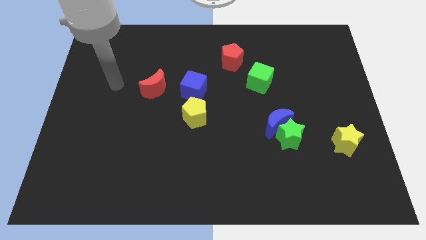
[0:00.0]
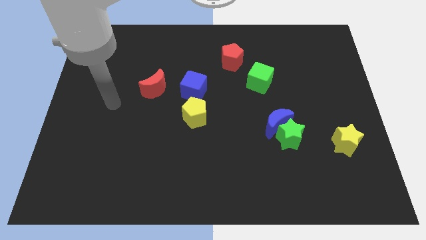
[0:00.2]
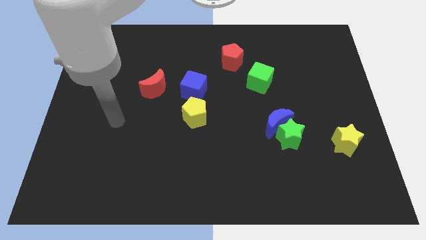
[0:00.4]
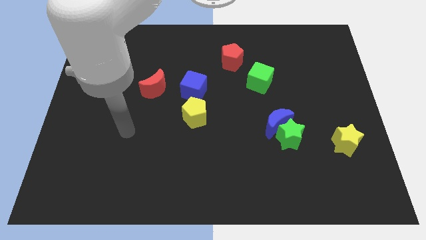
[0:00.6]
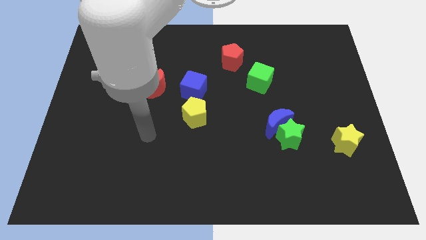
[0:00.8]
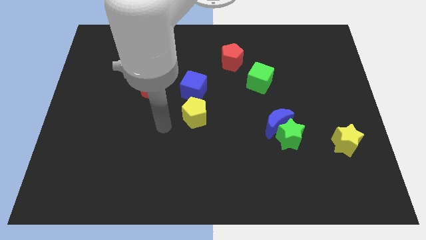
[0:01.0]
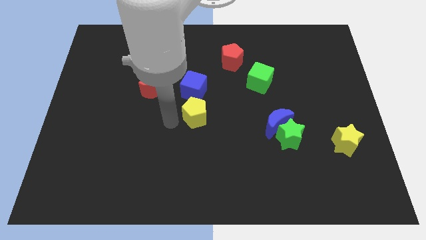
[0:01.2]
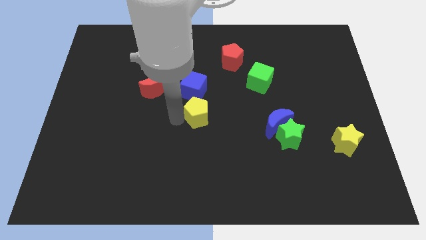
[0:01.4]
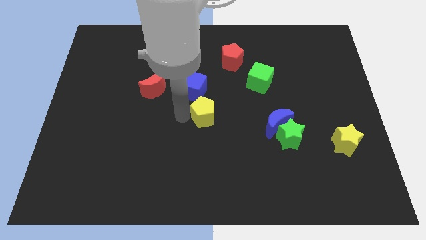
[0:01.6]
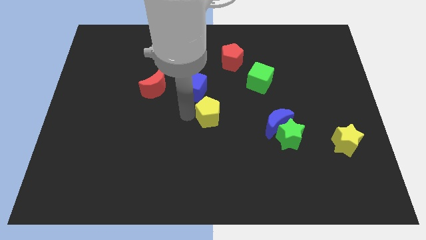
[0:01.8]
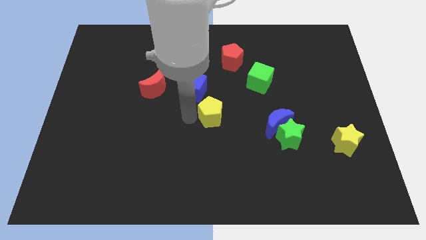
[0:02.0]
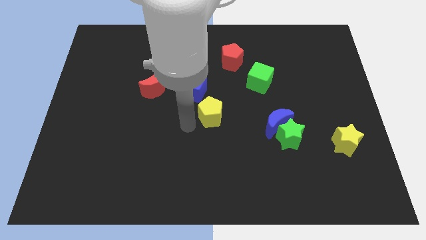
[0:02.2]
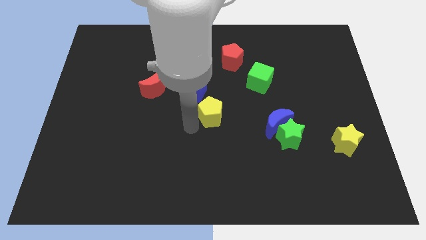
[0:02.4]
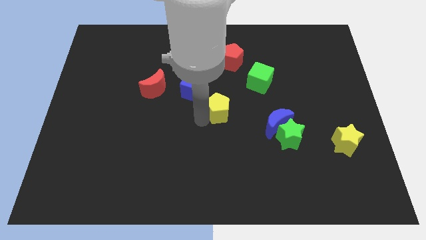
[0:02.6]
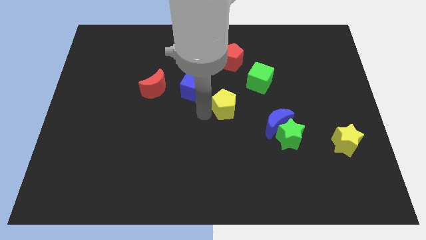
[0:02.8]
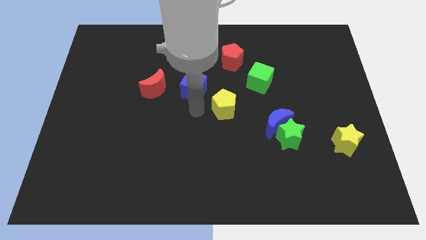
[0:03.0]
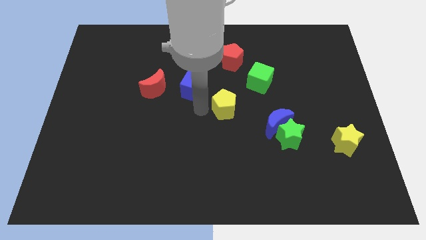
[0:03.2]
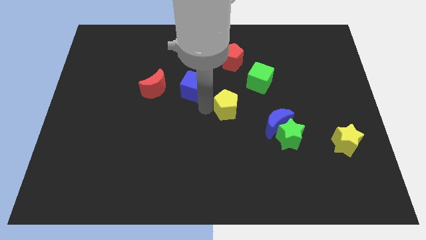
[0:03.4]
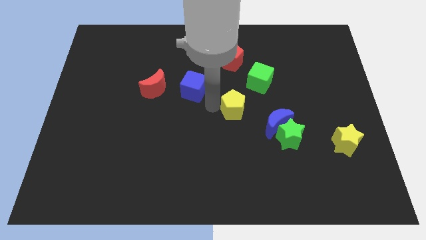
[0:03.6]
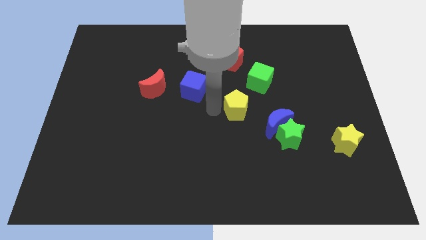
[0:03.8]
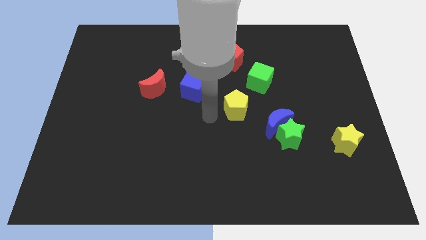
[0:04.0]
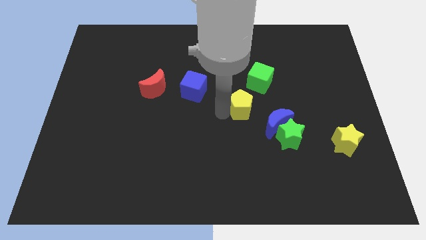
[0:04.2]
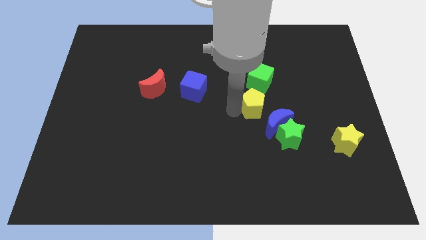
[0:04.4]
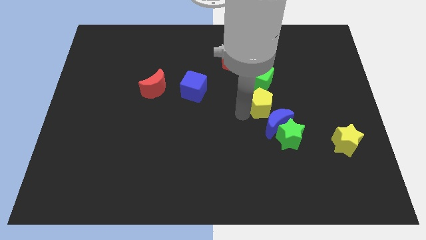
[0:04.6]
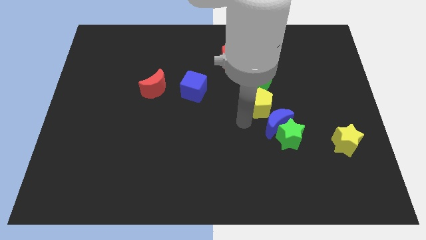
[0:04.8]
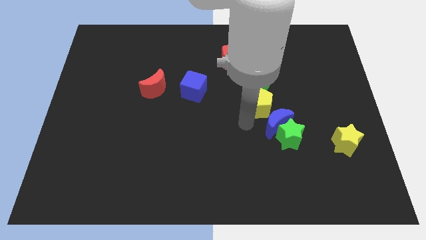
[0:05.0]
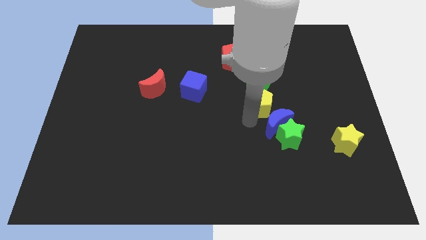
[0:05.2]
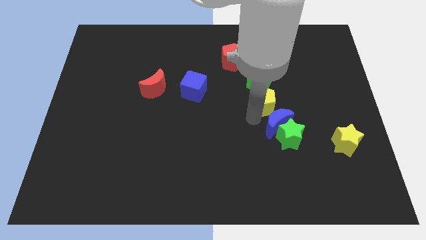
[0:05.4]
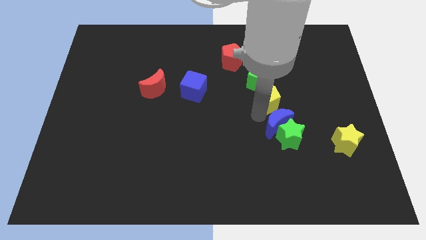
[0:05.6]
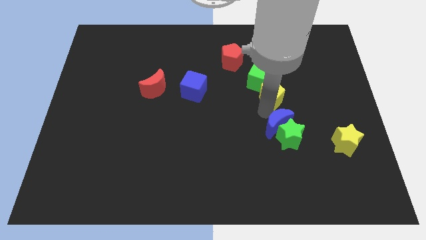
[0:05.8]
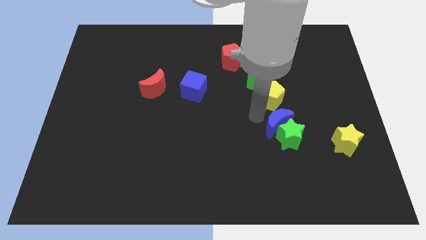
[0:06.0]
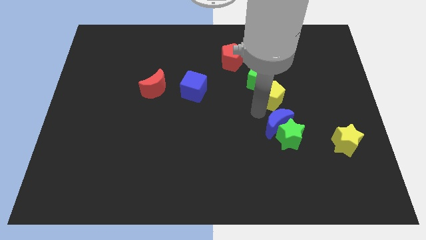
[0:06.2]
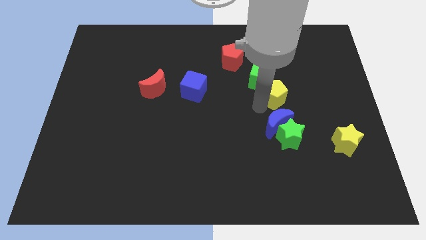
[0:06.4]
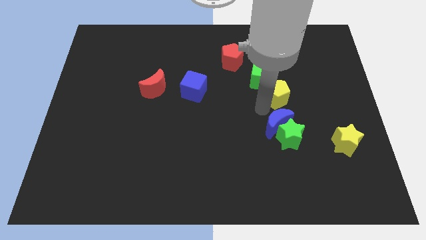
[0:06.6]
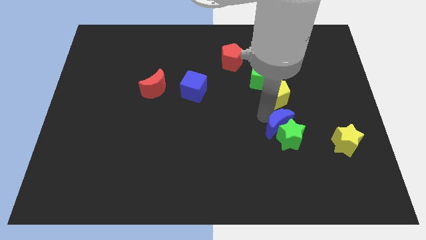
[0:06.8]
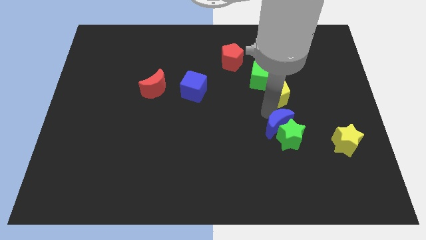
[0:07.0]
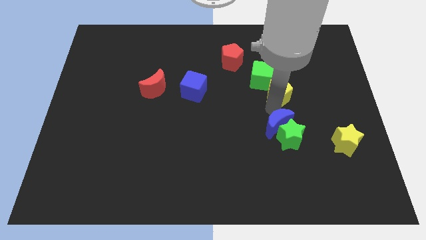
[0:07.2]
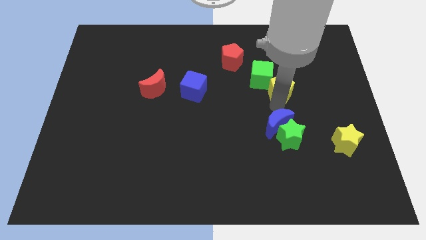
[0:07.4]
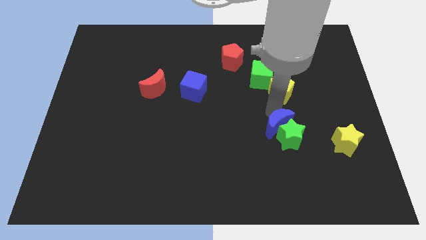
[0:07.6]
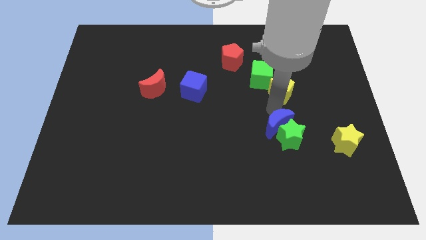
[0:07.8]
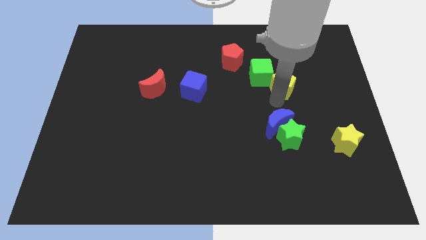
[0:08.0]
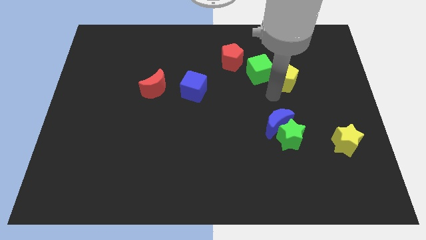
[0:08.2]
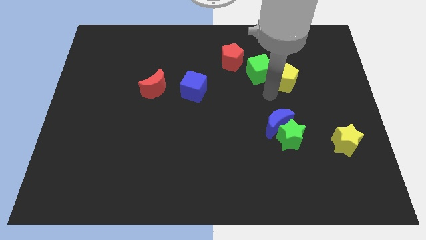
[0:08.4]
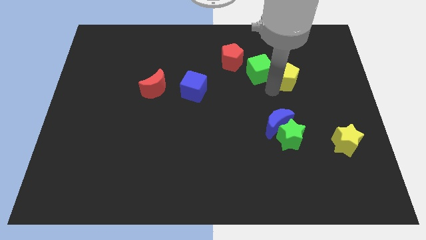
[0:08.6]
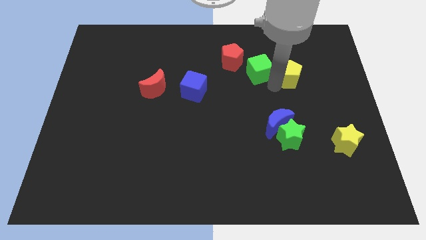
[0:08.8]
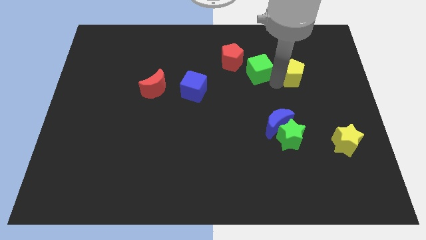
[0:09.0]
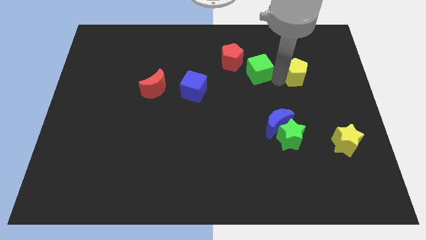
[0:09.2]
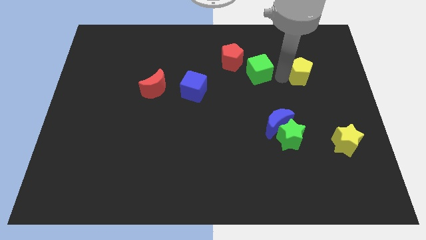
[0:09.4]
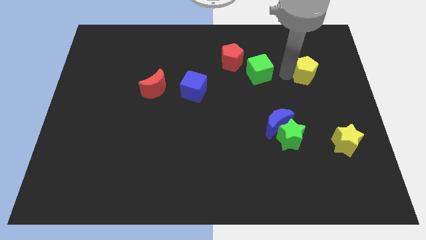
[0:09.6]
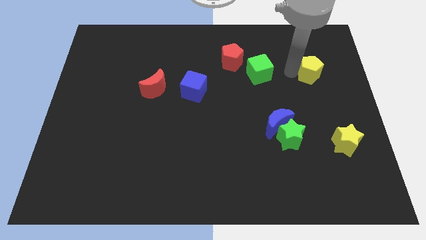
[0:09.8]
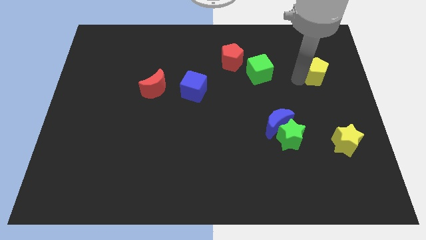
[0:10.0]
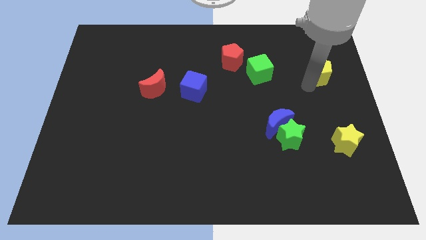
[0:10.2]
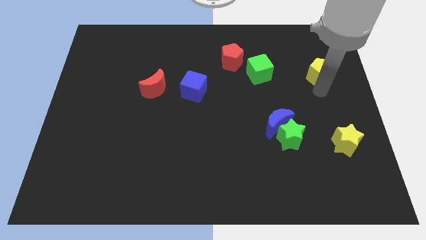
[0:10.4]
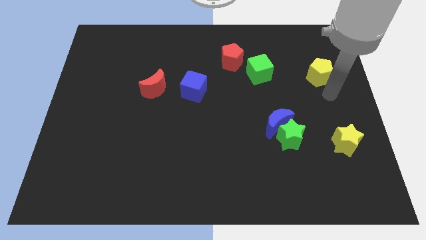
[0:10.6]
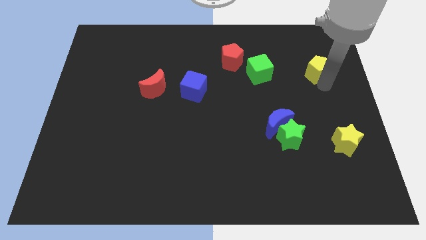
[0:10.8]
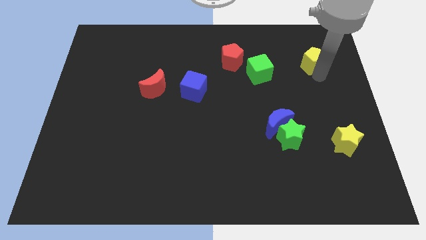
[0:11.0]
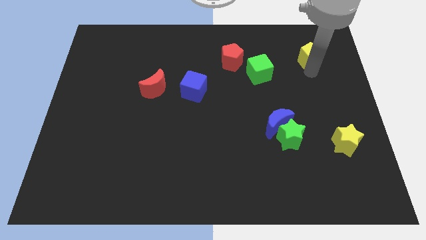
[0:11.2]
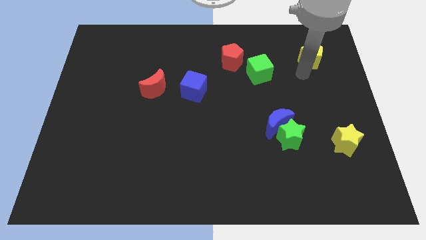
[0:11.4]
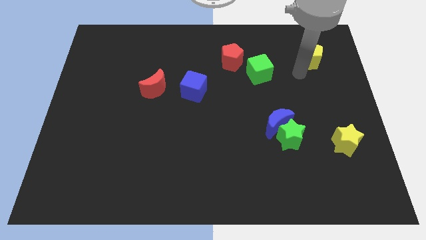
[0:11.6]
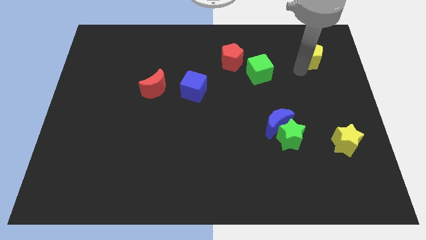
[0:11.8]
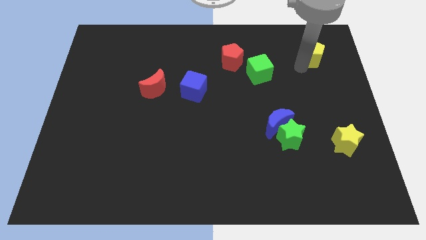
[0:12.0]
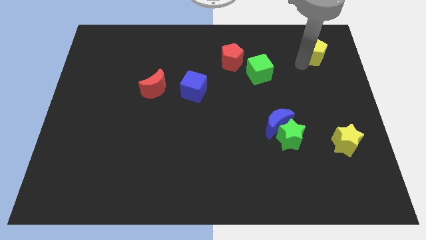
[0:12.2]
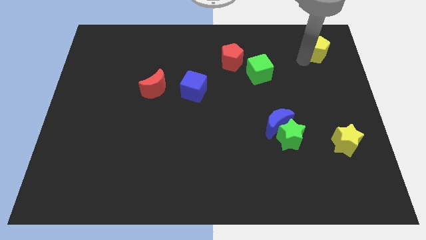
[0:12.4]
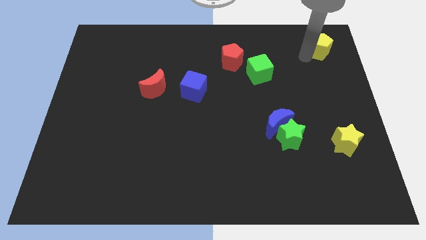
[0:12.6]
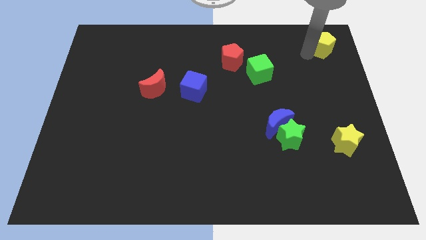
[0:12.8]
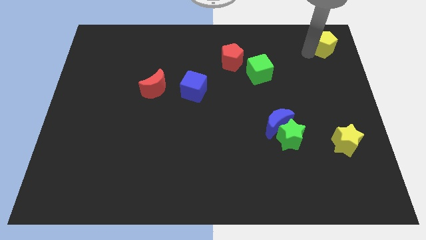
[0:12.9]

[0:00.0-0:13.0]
move the yellow pentagon to the top right
